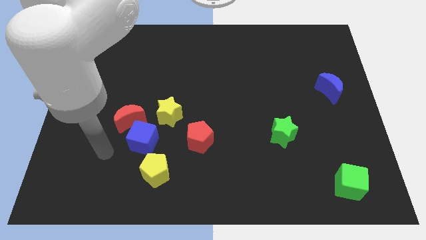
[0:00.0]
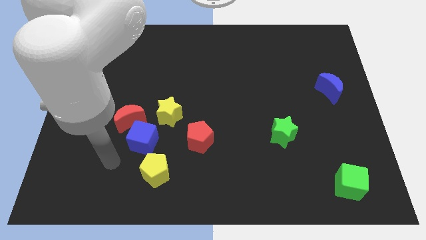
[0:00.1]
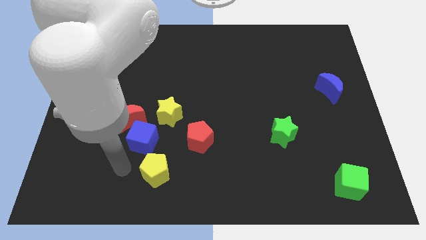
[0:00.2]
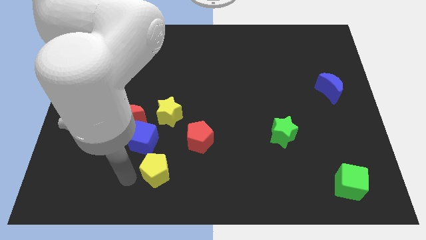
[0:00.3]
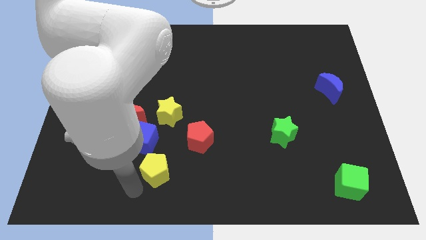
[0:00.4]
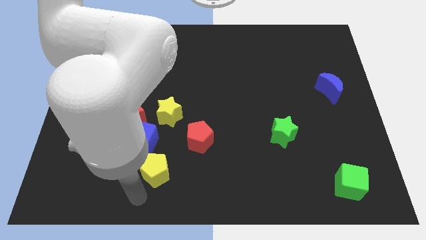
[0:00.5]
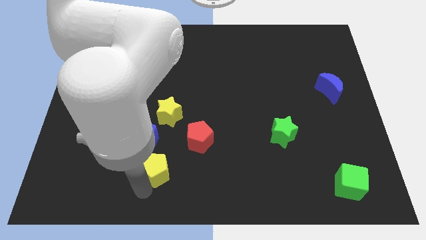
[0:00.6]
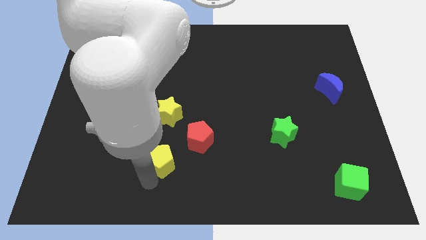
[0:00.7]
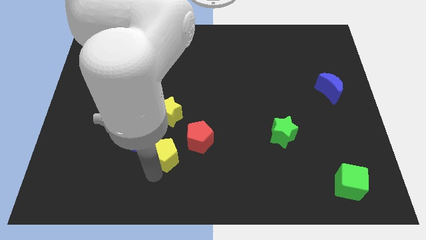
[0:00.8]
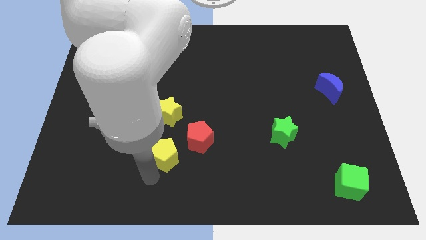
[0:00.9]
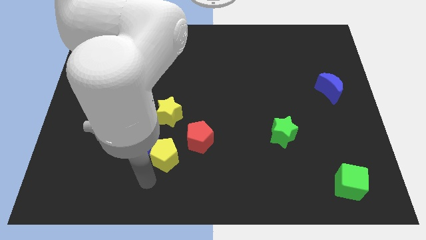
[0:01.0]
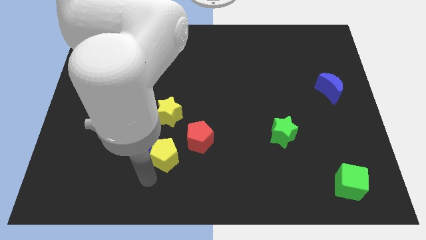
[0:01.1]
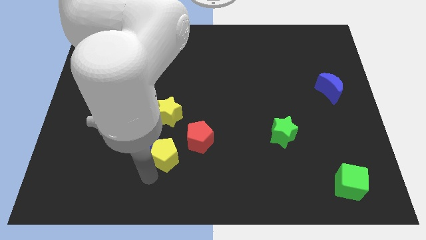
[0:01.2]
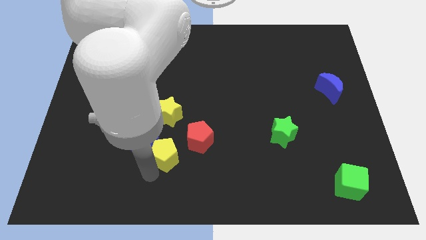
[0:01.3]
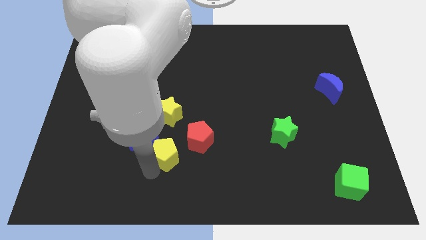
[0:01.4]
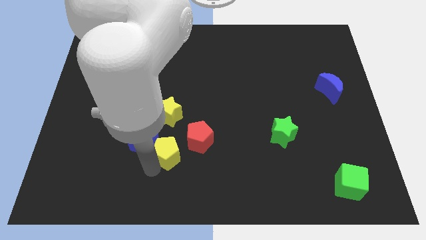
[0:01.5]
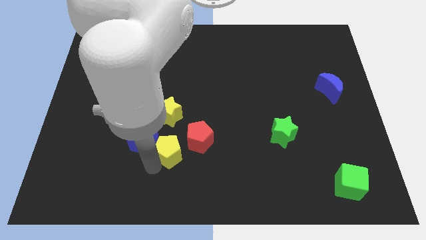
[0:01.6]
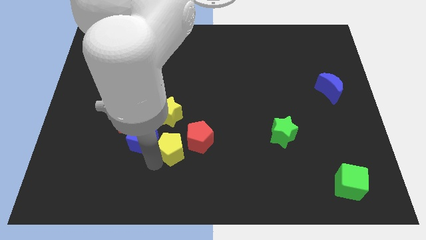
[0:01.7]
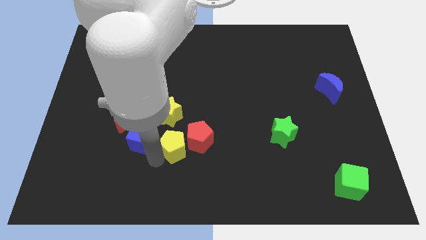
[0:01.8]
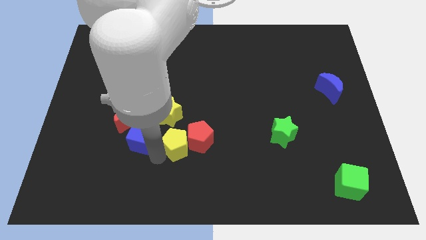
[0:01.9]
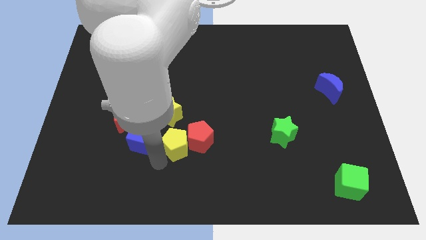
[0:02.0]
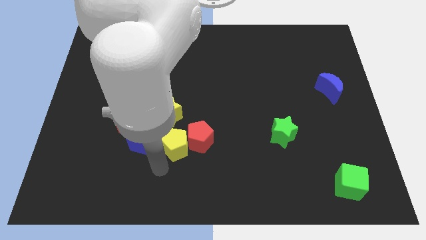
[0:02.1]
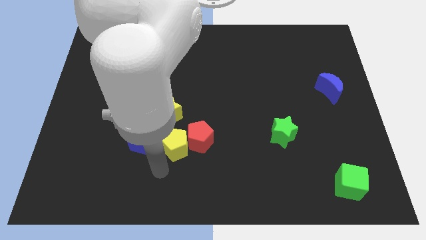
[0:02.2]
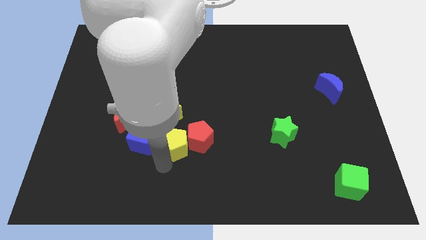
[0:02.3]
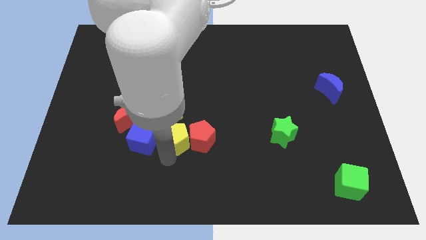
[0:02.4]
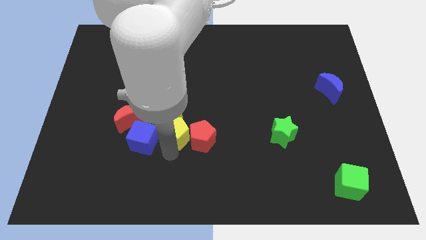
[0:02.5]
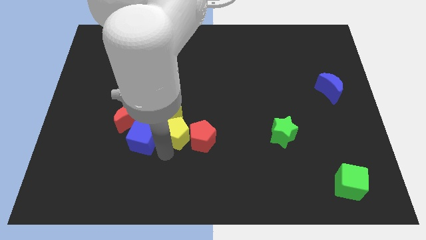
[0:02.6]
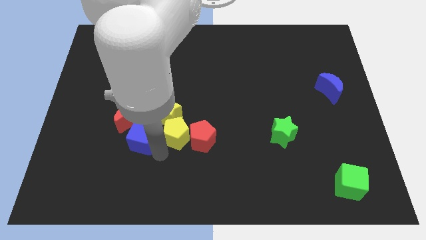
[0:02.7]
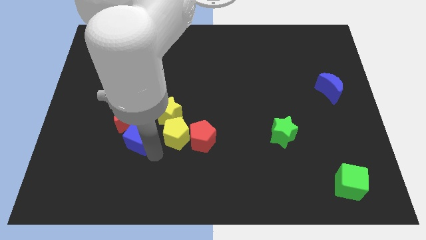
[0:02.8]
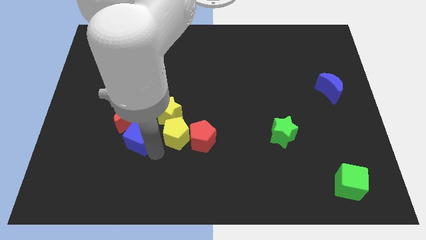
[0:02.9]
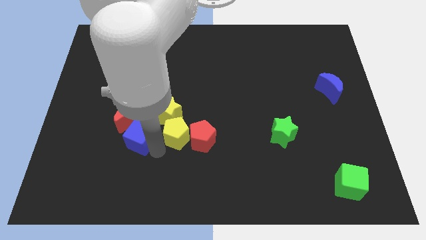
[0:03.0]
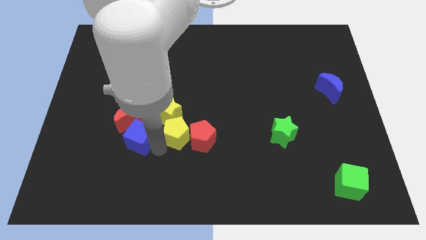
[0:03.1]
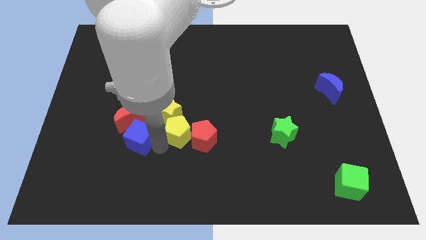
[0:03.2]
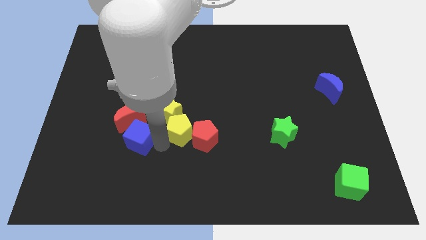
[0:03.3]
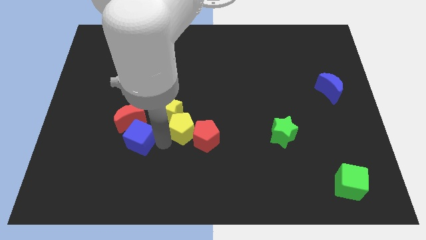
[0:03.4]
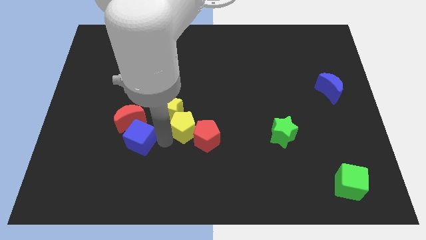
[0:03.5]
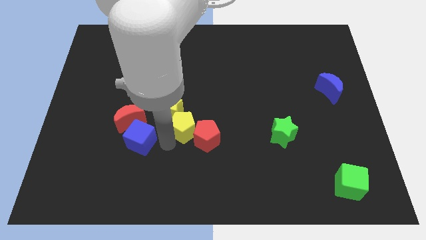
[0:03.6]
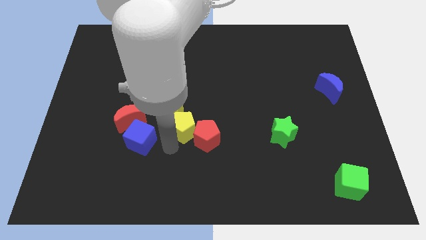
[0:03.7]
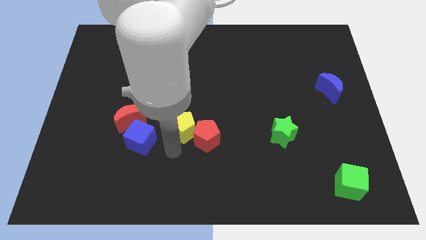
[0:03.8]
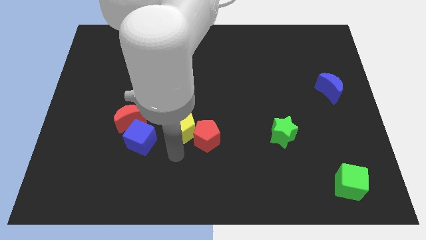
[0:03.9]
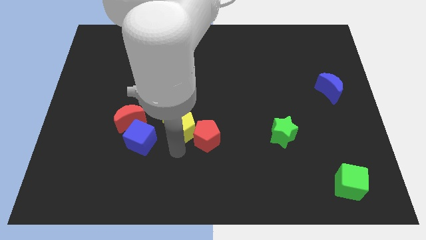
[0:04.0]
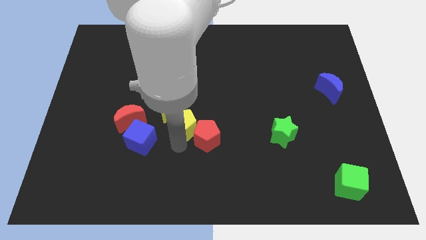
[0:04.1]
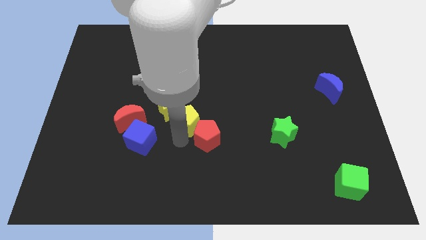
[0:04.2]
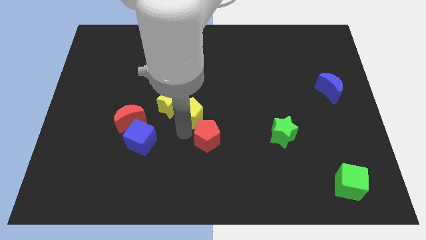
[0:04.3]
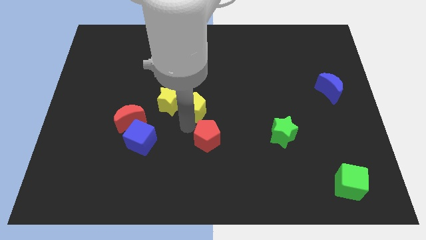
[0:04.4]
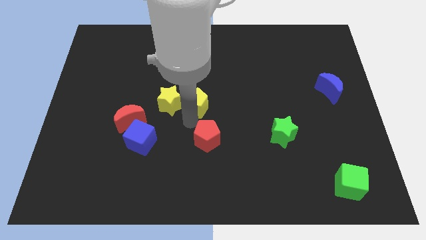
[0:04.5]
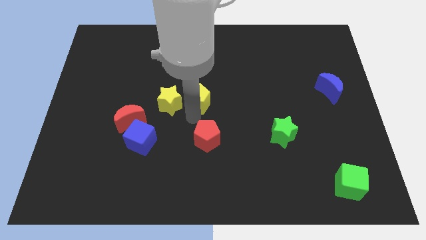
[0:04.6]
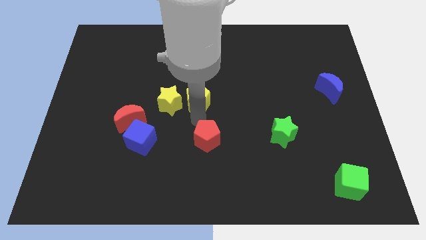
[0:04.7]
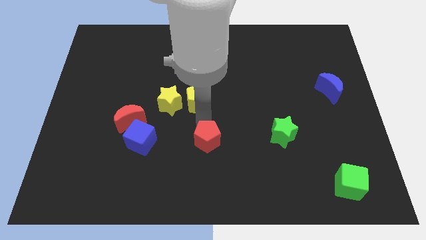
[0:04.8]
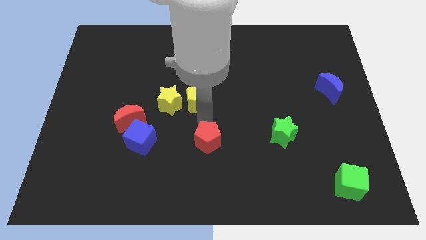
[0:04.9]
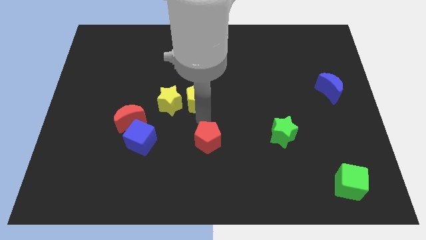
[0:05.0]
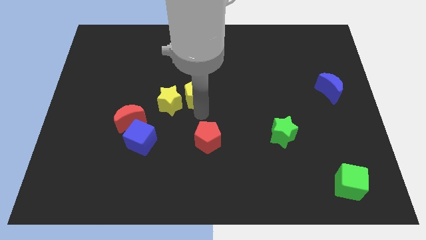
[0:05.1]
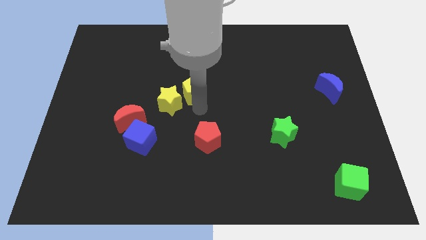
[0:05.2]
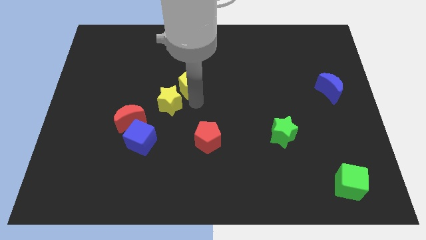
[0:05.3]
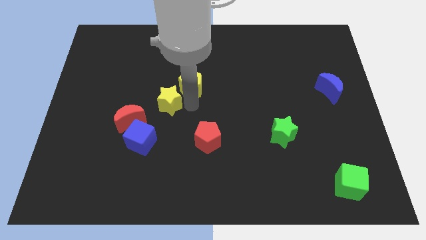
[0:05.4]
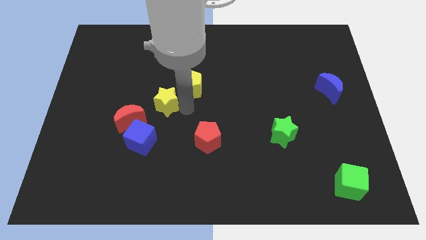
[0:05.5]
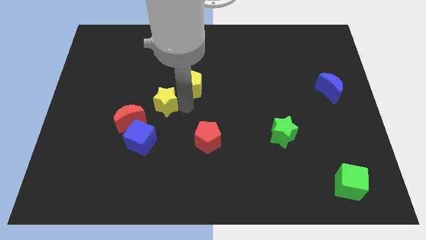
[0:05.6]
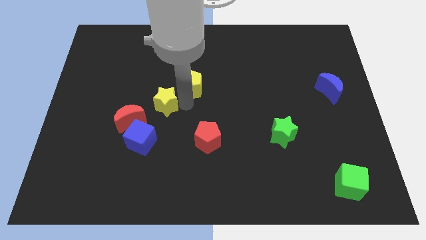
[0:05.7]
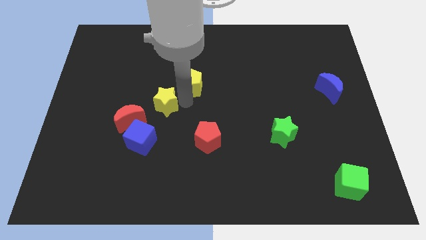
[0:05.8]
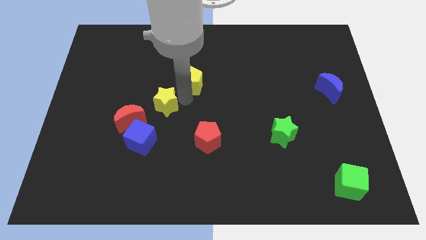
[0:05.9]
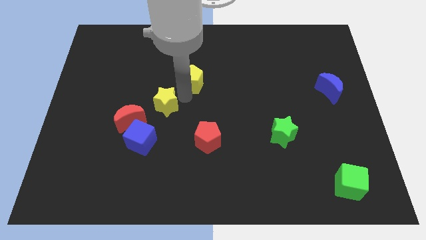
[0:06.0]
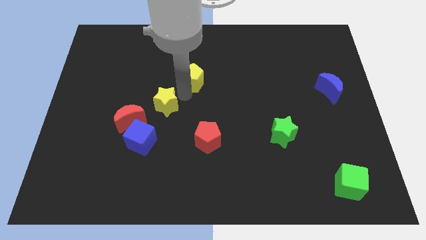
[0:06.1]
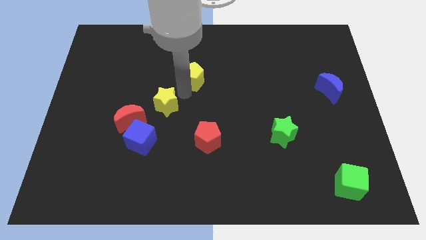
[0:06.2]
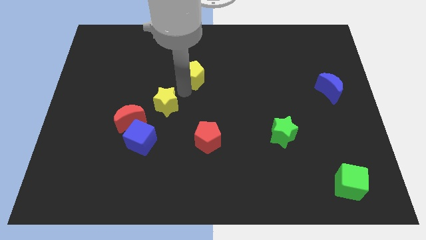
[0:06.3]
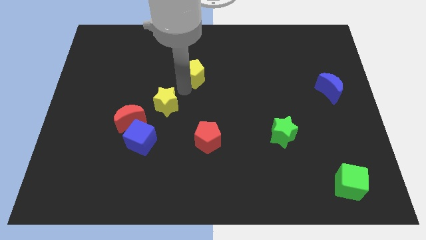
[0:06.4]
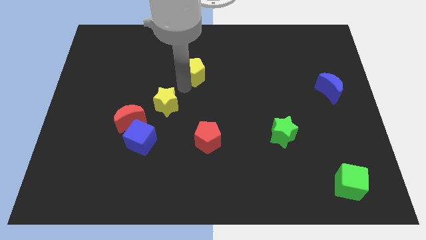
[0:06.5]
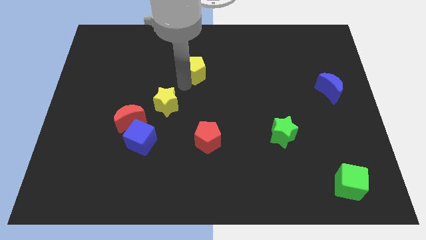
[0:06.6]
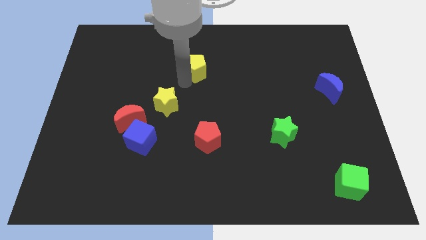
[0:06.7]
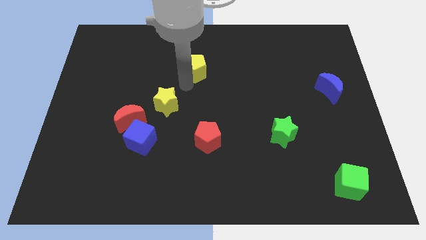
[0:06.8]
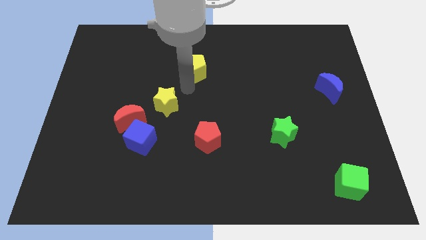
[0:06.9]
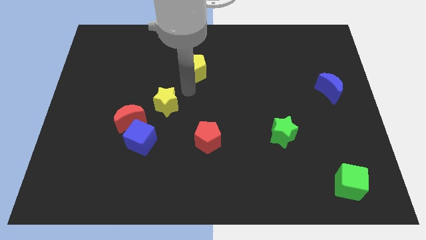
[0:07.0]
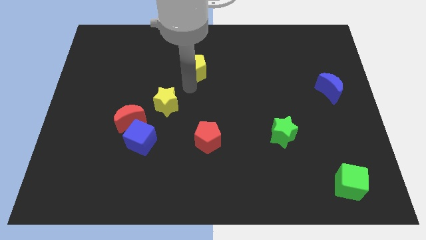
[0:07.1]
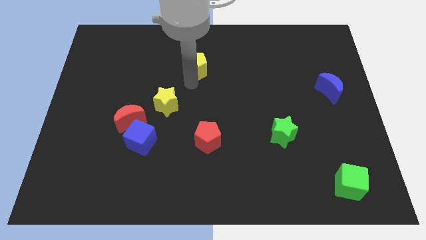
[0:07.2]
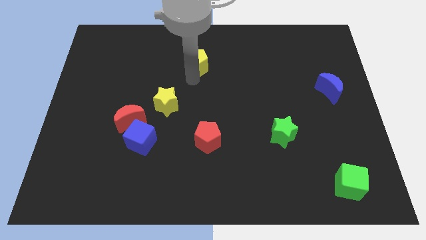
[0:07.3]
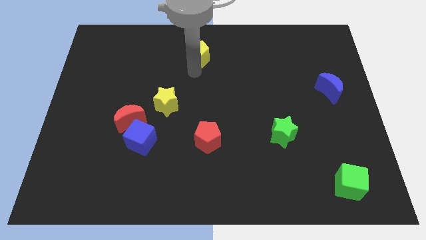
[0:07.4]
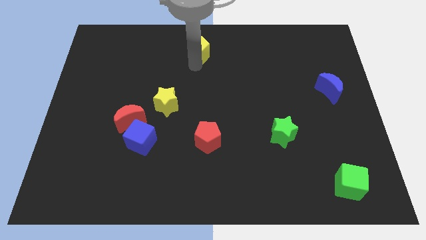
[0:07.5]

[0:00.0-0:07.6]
move the yellow pentagon to the top
